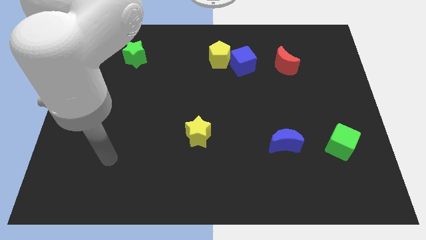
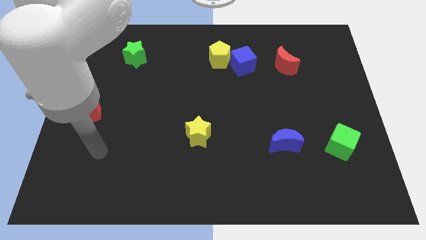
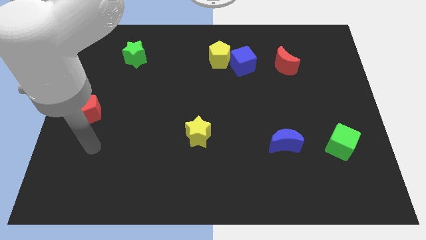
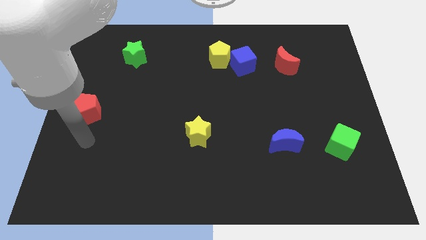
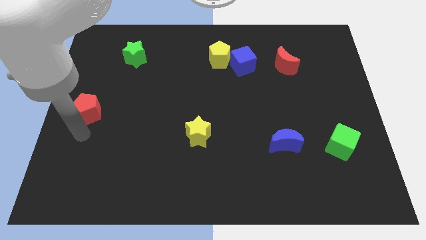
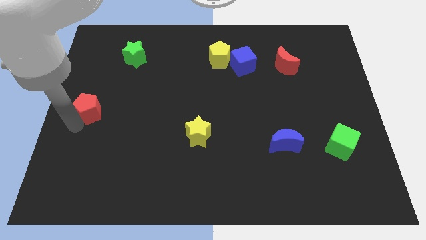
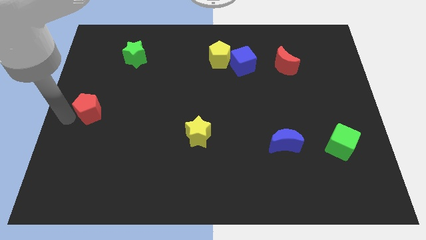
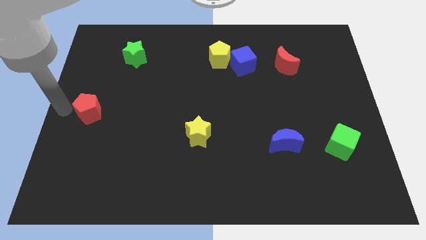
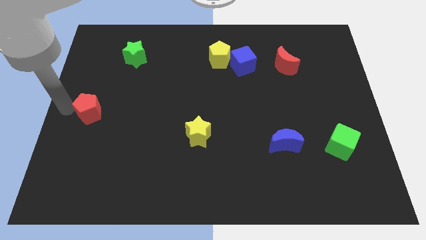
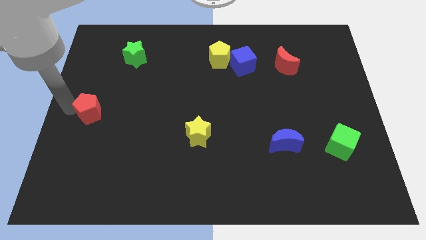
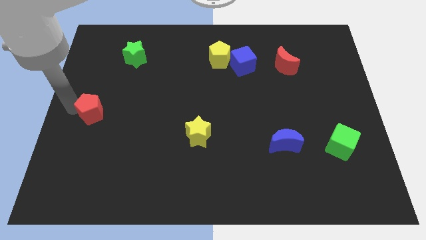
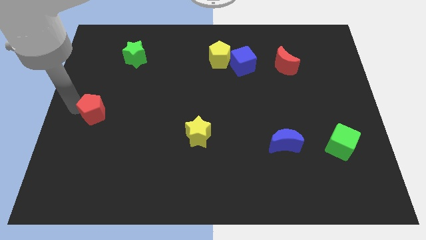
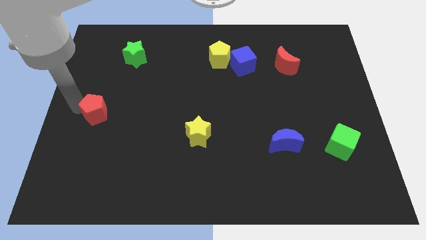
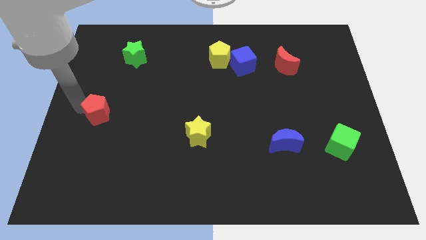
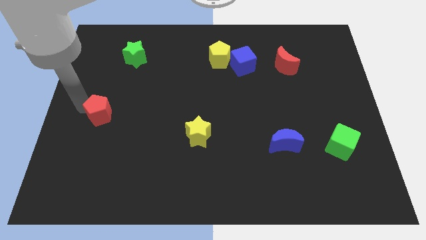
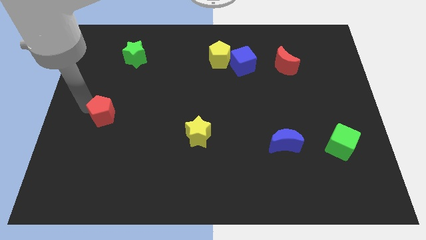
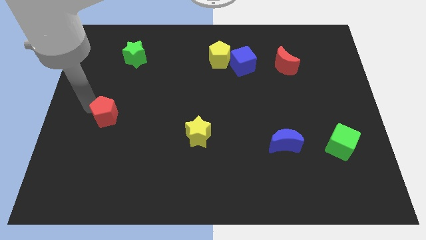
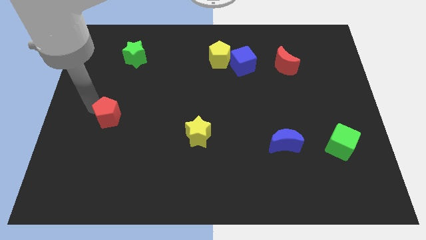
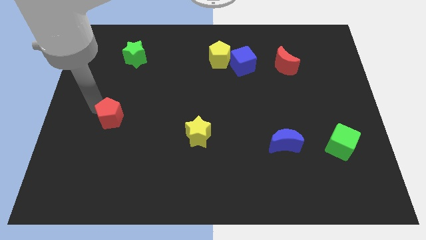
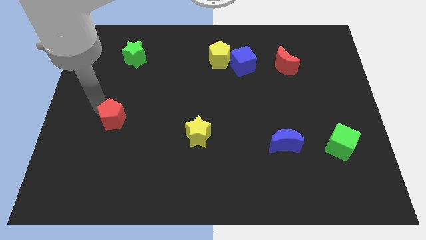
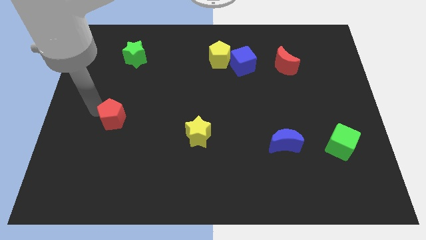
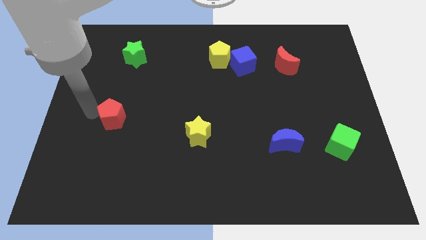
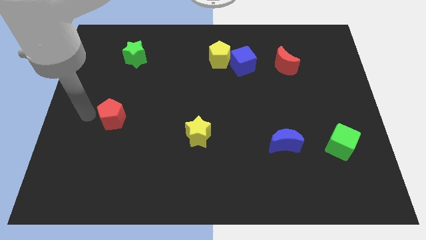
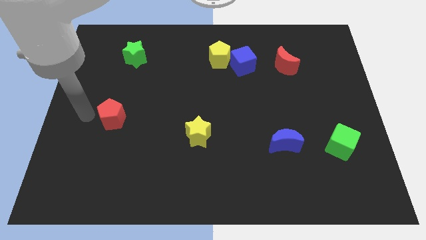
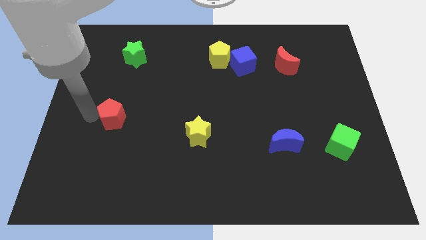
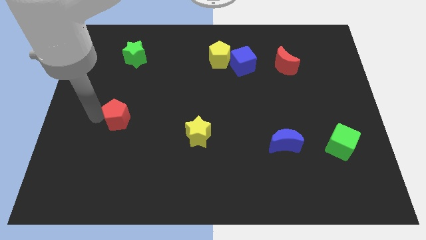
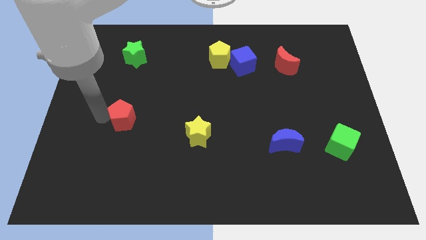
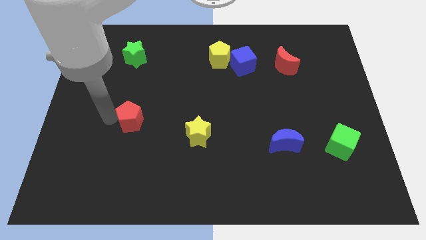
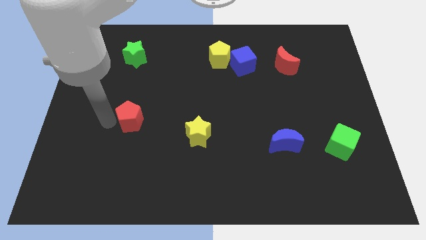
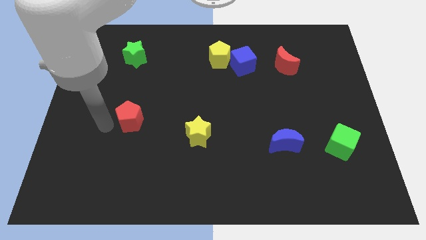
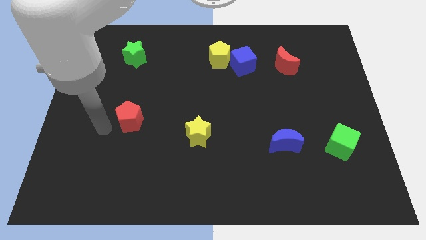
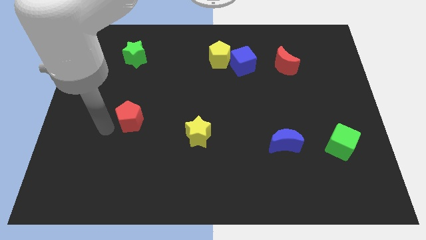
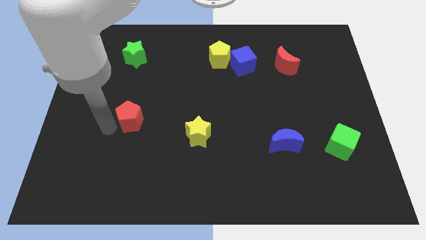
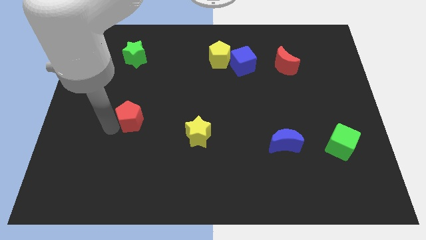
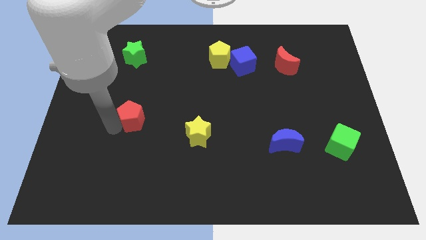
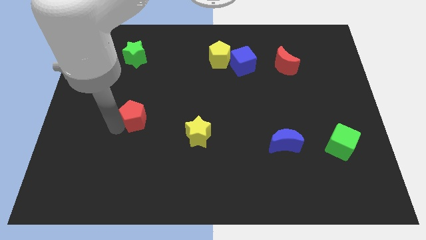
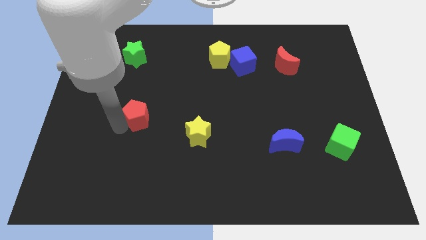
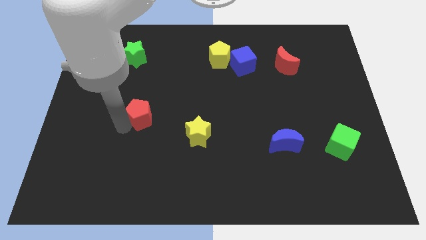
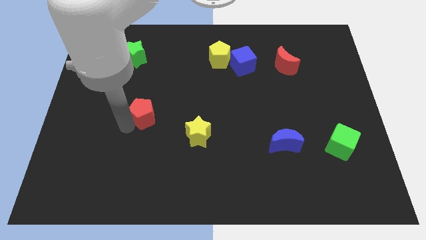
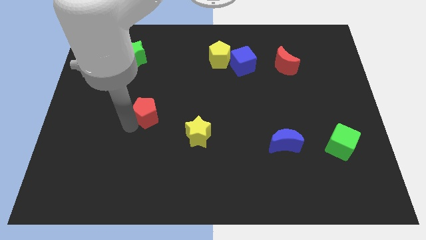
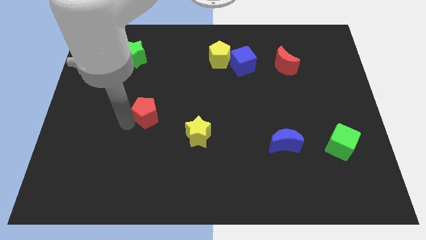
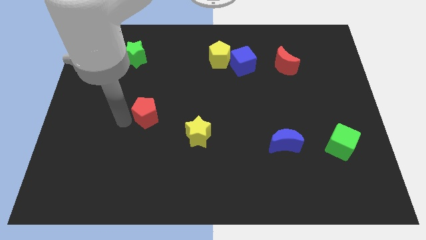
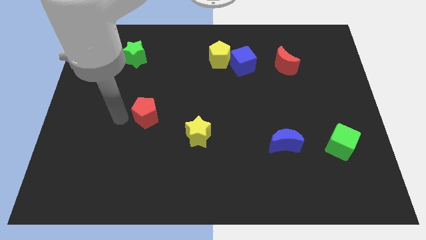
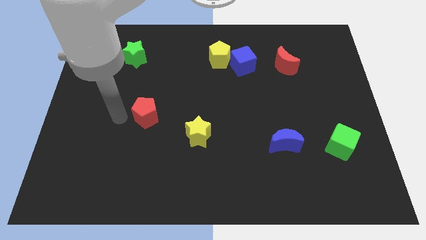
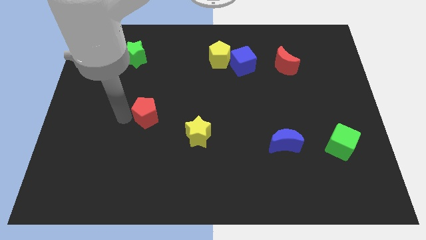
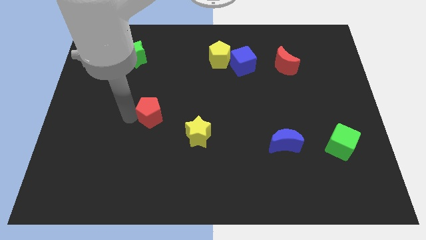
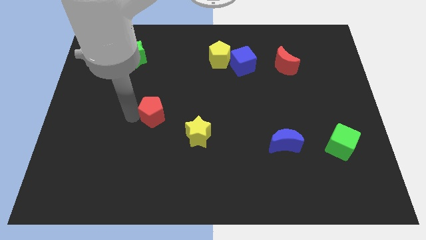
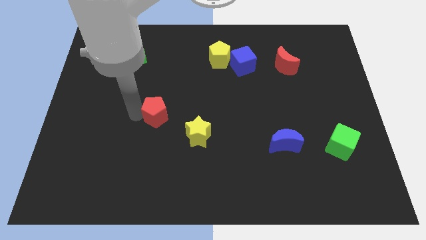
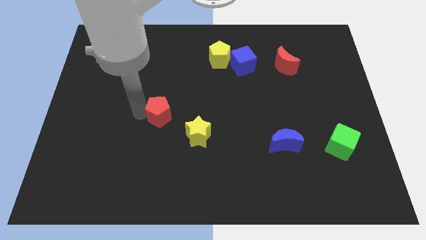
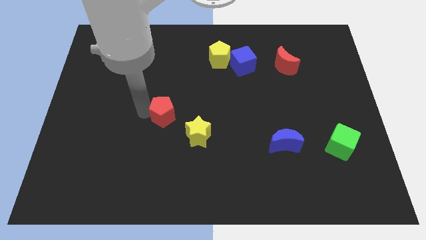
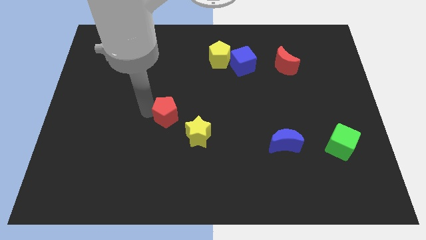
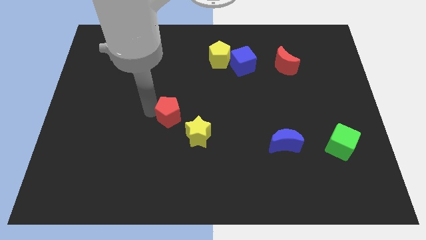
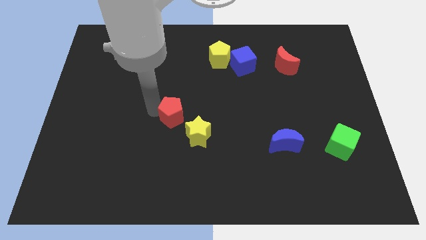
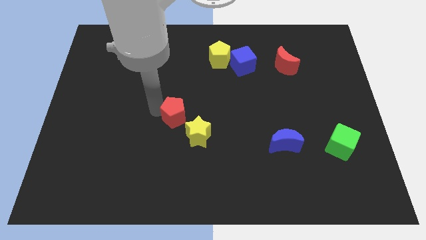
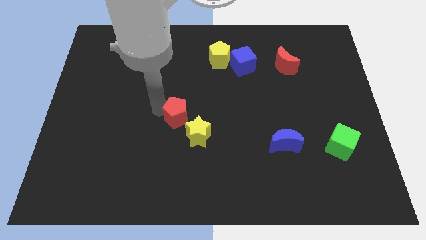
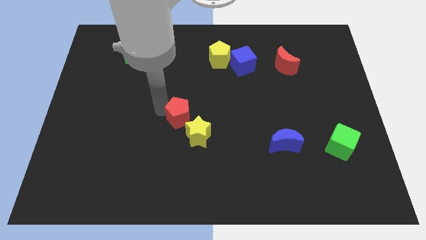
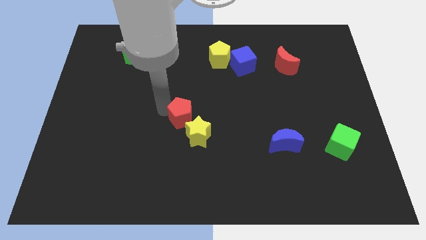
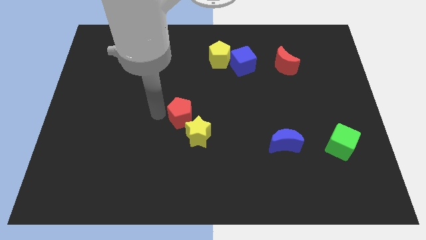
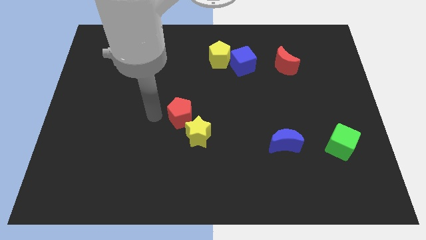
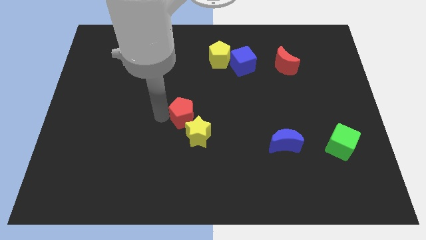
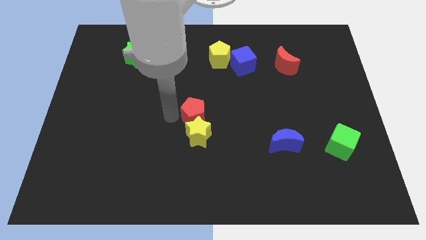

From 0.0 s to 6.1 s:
put the red pentagon diagonally up and to the right of the yellow star
